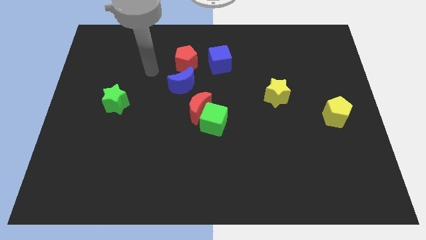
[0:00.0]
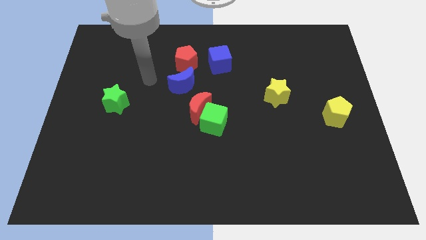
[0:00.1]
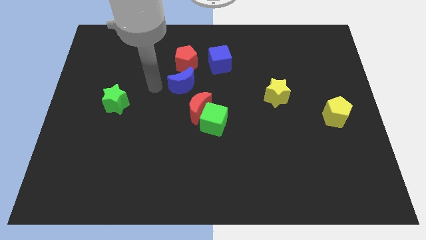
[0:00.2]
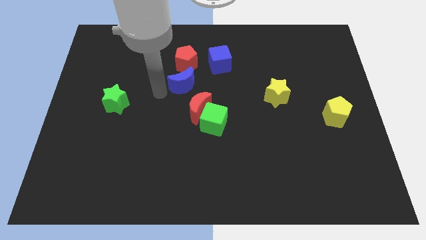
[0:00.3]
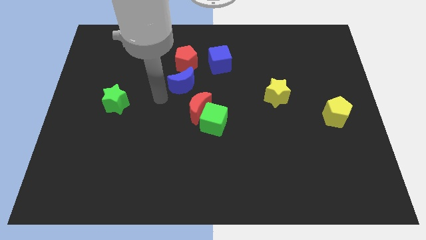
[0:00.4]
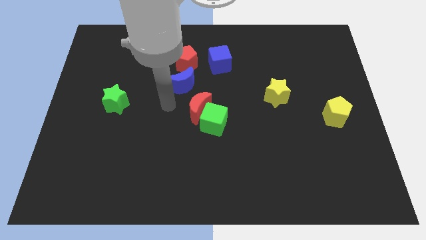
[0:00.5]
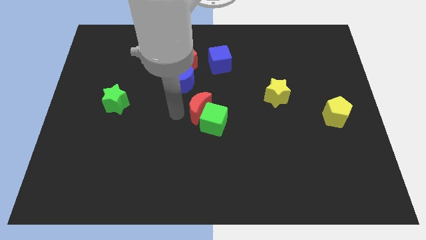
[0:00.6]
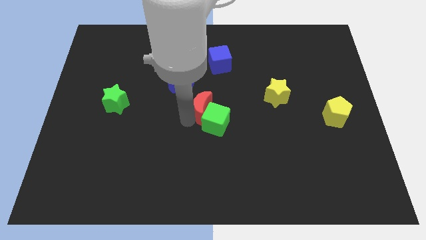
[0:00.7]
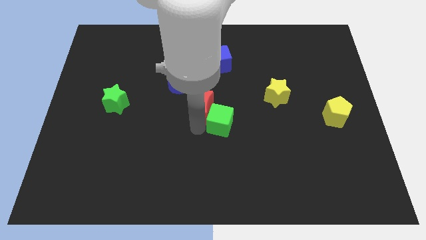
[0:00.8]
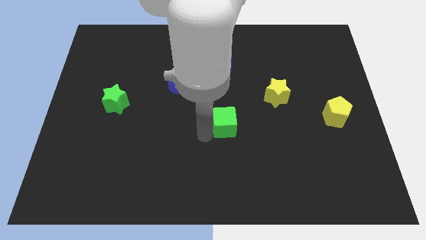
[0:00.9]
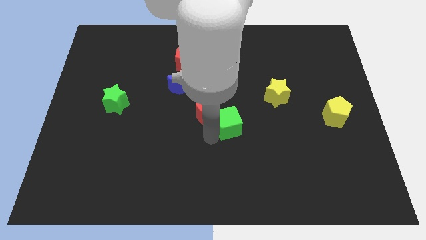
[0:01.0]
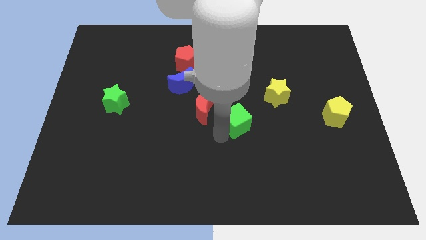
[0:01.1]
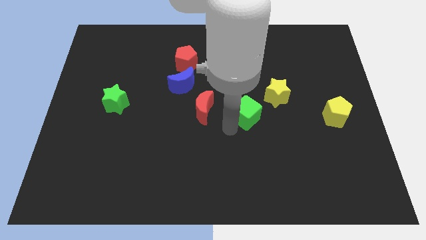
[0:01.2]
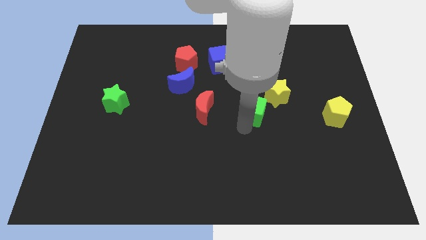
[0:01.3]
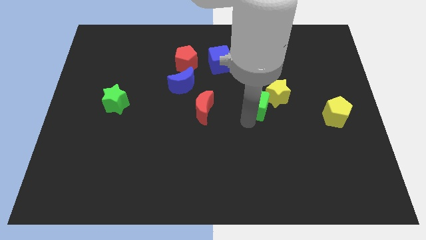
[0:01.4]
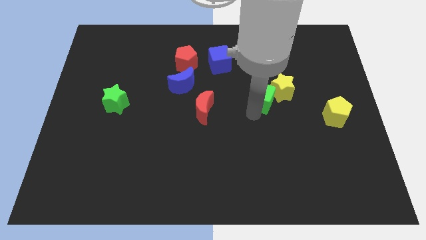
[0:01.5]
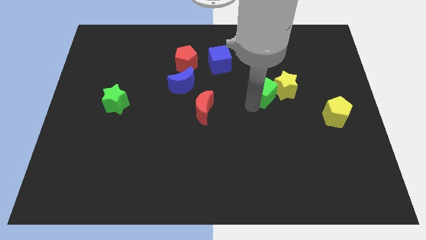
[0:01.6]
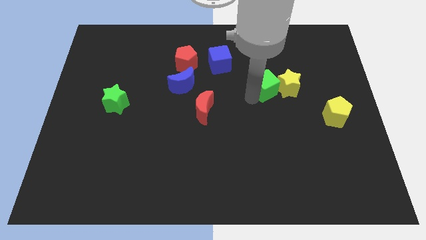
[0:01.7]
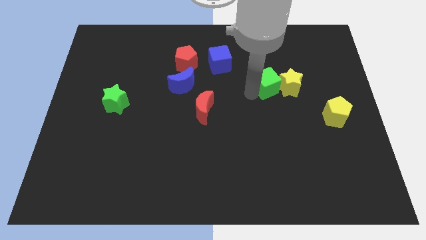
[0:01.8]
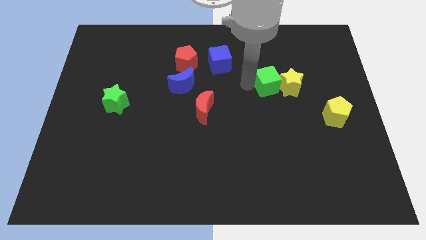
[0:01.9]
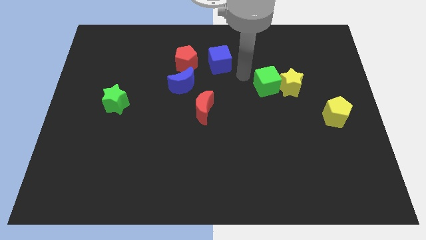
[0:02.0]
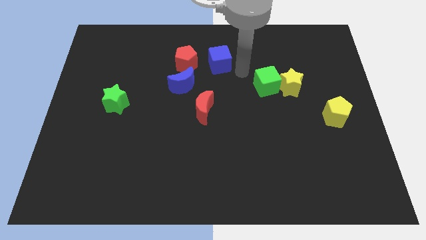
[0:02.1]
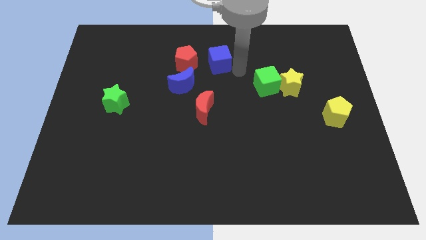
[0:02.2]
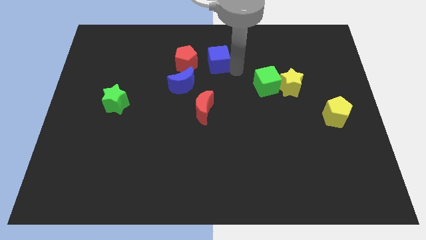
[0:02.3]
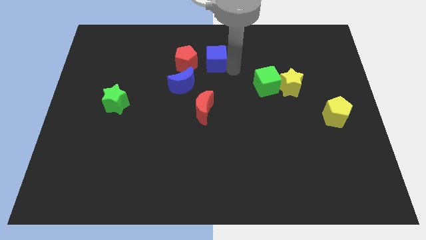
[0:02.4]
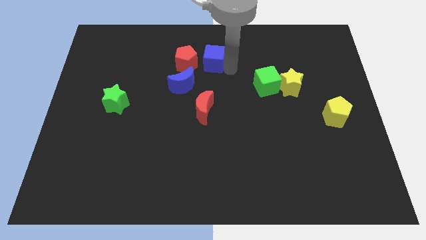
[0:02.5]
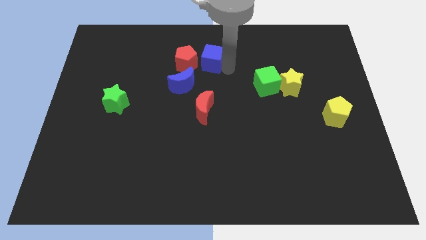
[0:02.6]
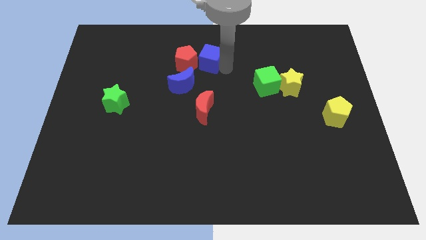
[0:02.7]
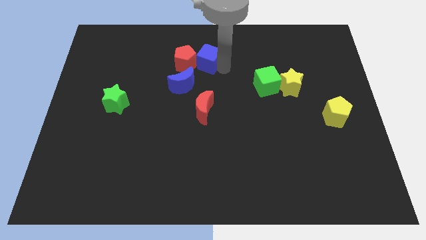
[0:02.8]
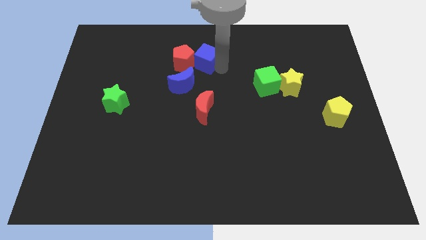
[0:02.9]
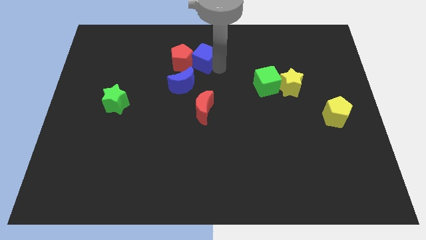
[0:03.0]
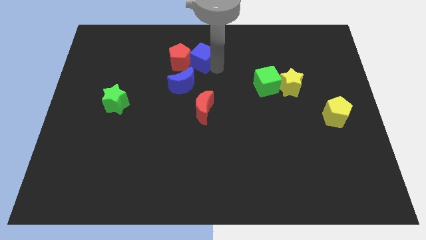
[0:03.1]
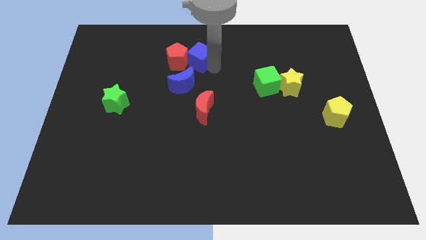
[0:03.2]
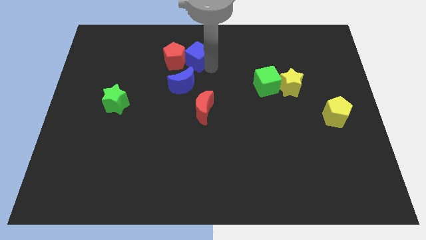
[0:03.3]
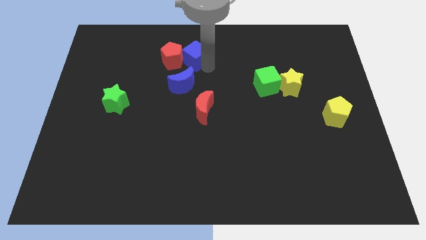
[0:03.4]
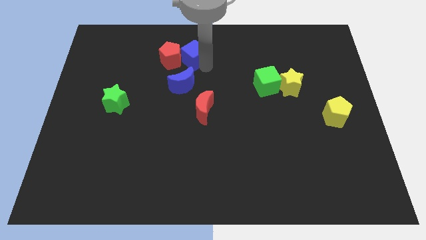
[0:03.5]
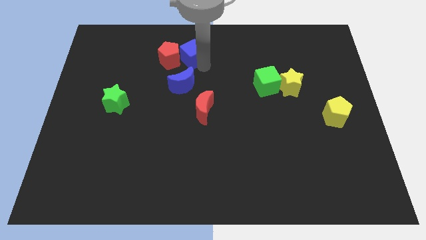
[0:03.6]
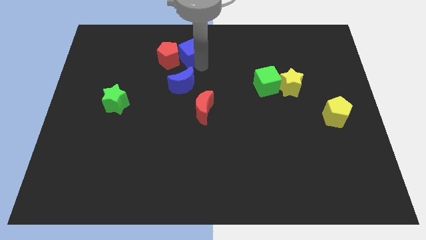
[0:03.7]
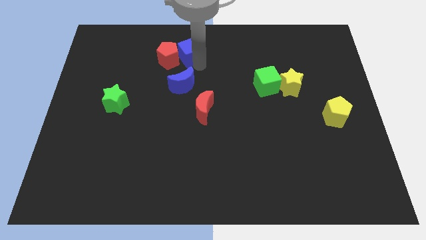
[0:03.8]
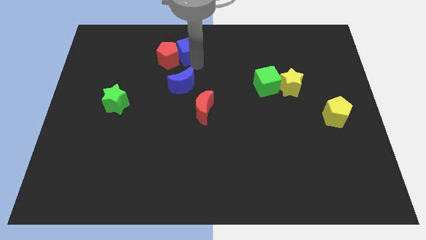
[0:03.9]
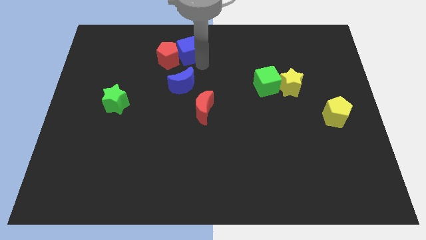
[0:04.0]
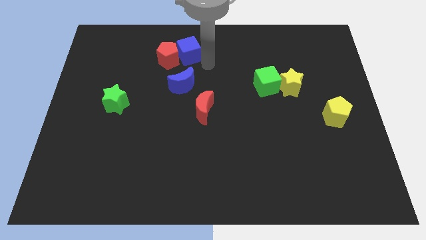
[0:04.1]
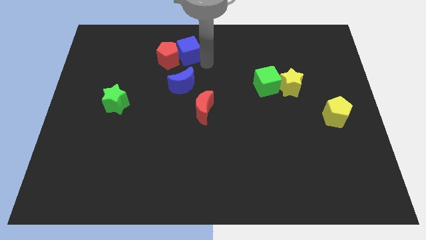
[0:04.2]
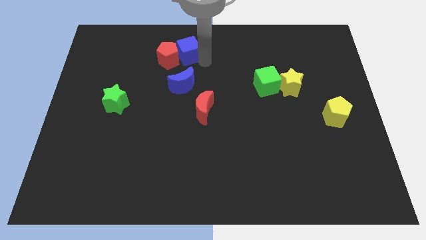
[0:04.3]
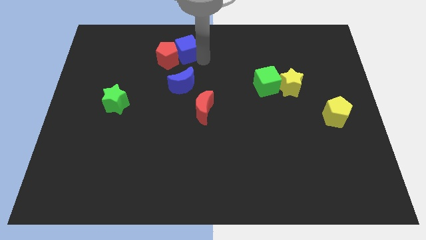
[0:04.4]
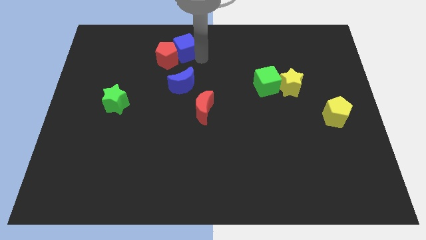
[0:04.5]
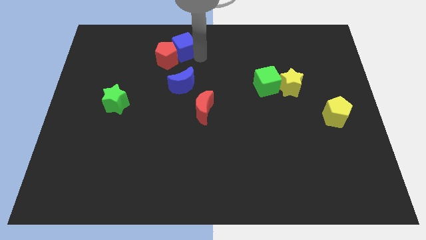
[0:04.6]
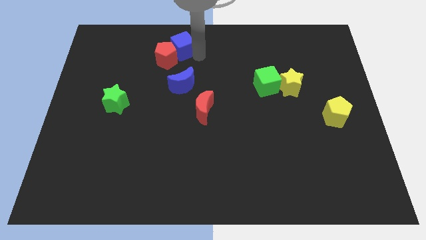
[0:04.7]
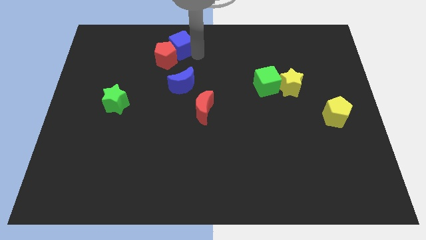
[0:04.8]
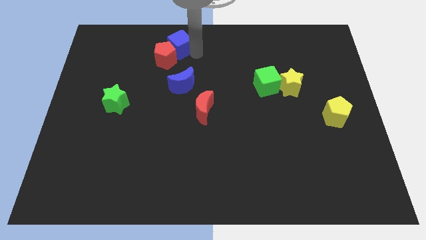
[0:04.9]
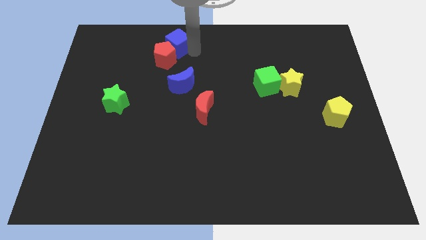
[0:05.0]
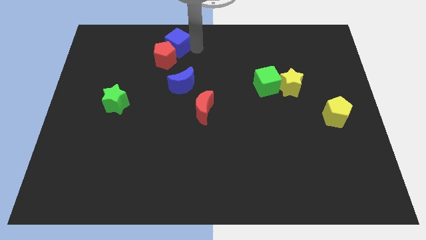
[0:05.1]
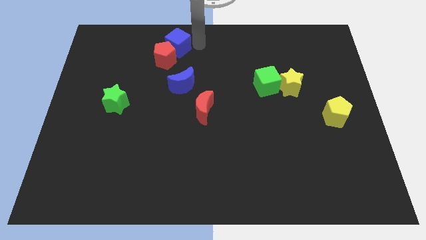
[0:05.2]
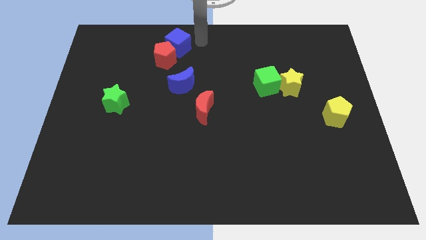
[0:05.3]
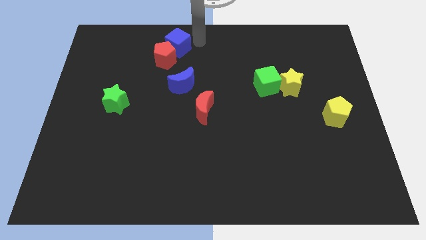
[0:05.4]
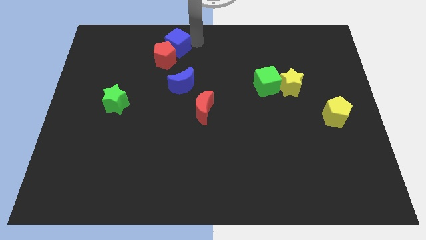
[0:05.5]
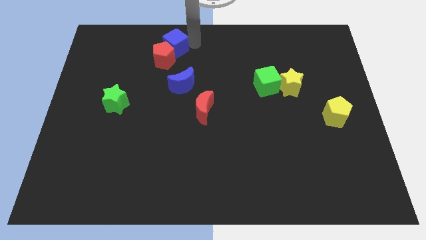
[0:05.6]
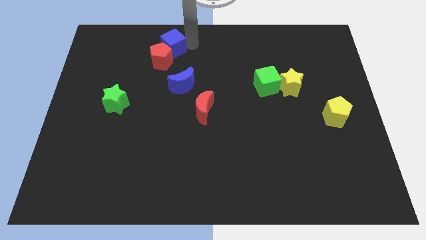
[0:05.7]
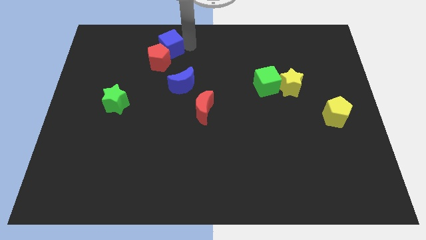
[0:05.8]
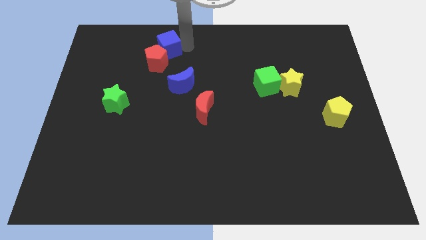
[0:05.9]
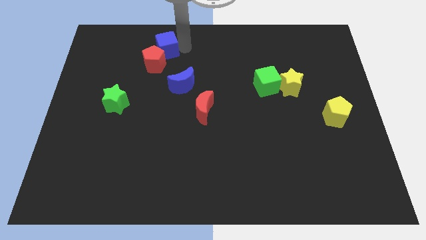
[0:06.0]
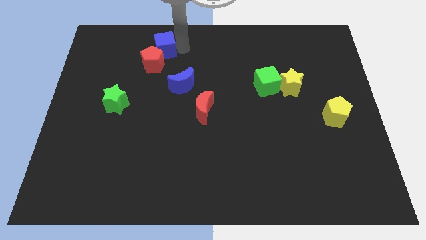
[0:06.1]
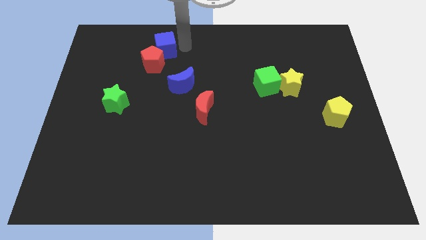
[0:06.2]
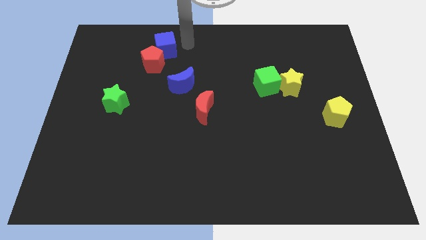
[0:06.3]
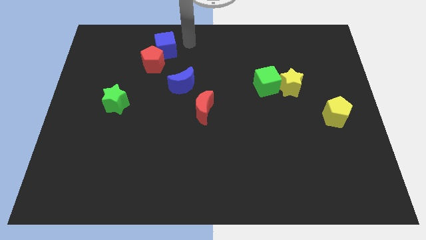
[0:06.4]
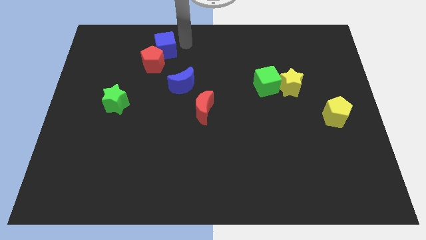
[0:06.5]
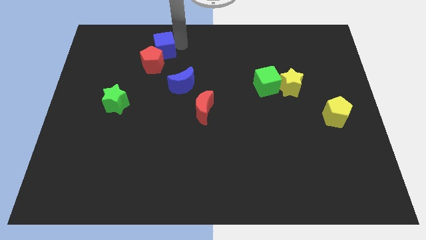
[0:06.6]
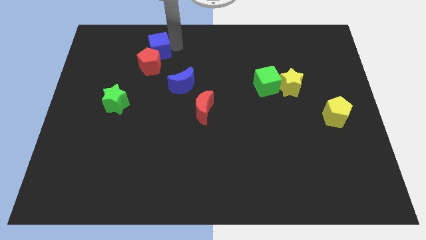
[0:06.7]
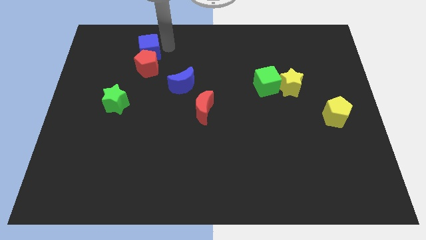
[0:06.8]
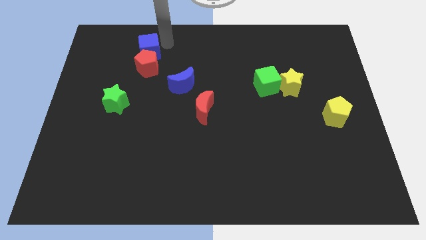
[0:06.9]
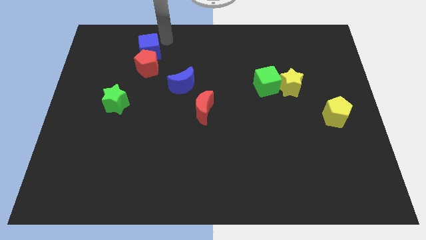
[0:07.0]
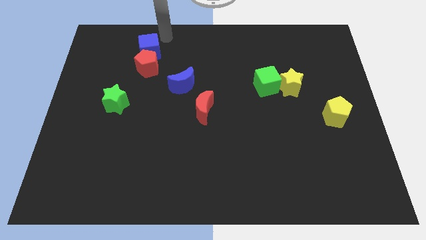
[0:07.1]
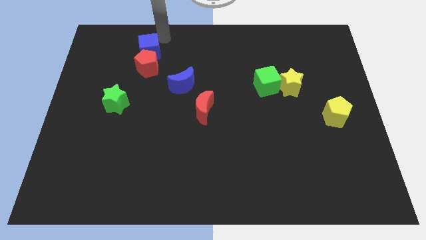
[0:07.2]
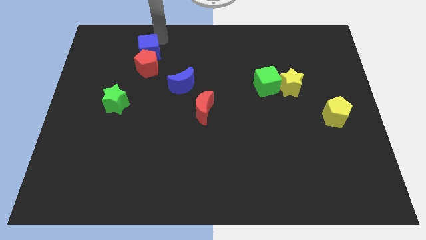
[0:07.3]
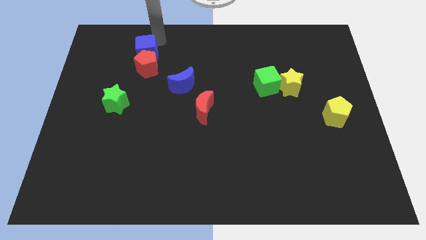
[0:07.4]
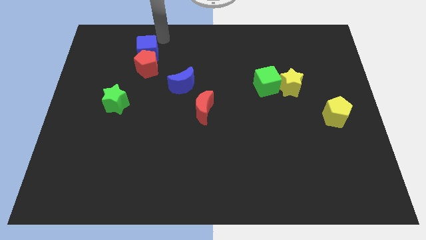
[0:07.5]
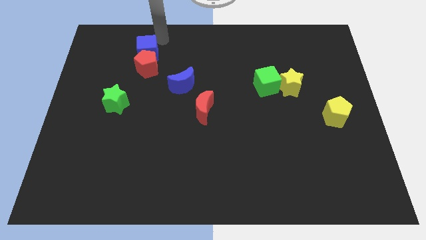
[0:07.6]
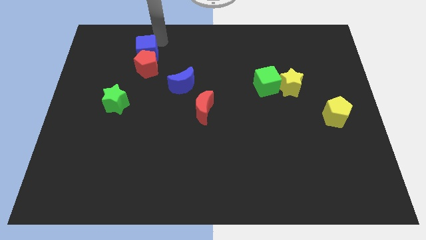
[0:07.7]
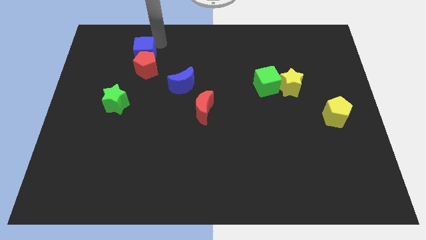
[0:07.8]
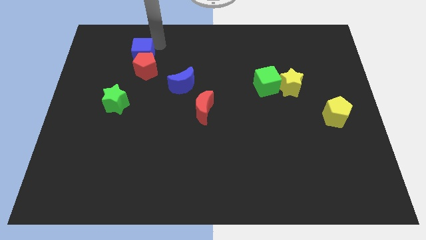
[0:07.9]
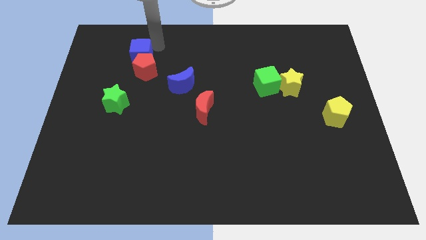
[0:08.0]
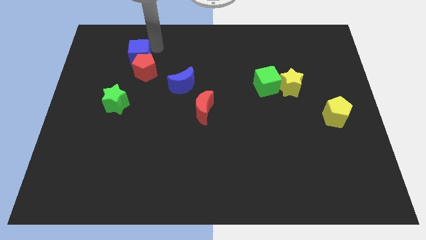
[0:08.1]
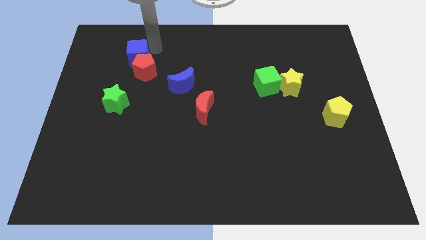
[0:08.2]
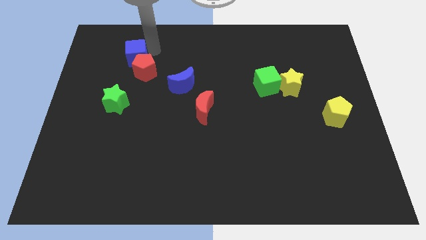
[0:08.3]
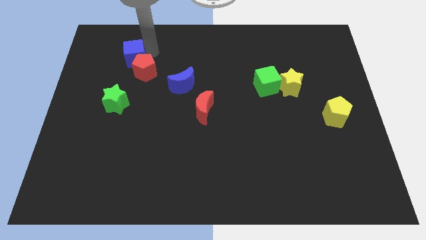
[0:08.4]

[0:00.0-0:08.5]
slide the blue cube to the top of the green star
